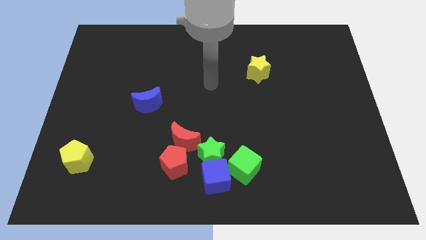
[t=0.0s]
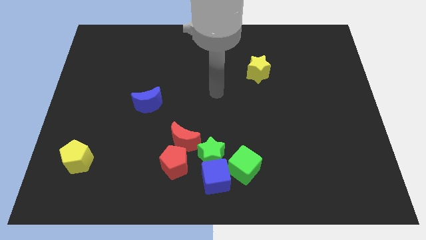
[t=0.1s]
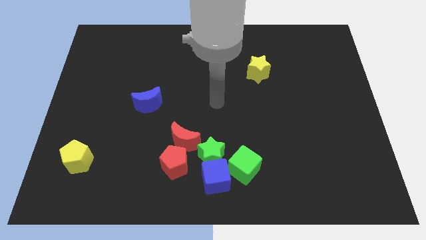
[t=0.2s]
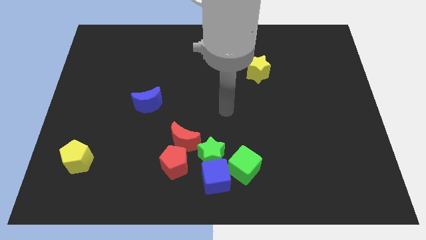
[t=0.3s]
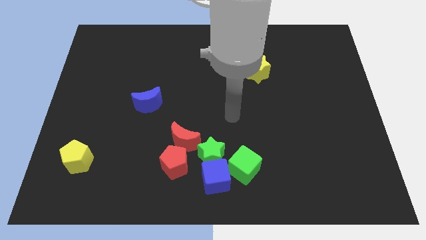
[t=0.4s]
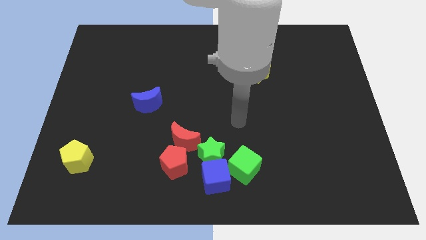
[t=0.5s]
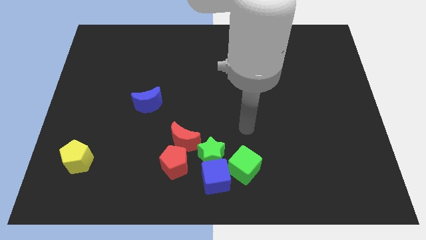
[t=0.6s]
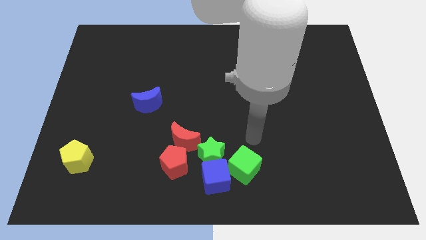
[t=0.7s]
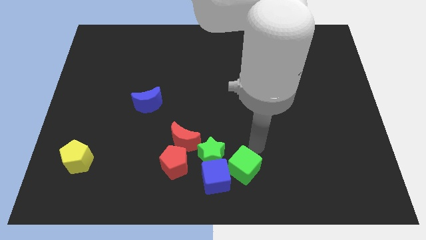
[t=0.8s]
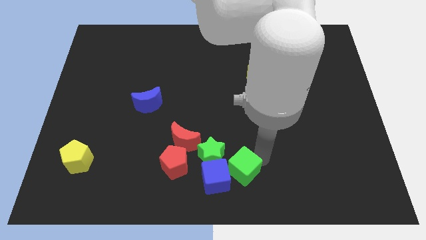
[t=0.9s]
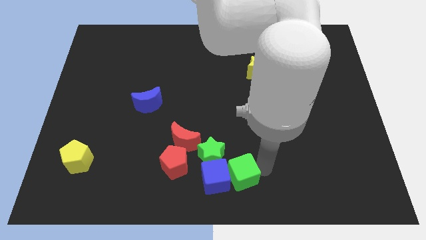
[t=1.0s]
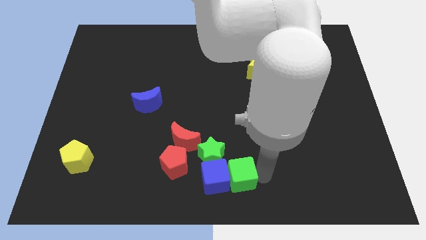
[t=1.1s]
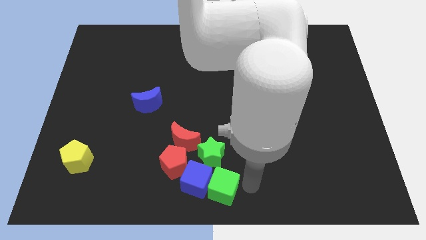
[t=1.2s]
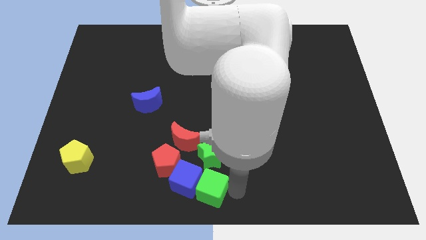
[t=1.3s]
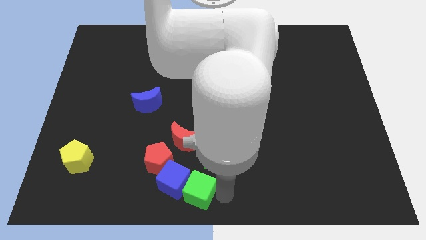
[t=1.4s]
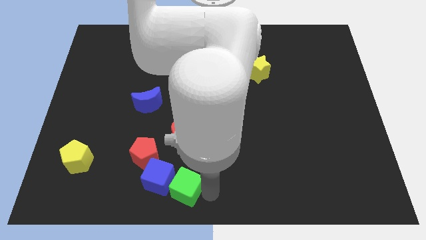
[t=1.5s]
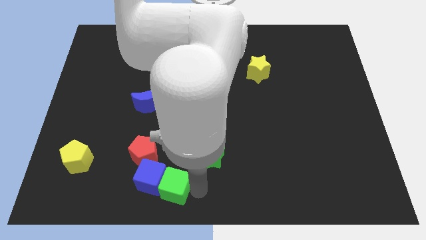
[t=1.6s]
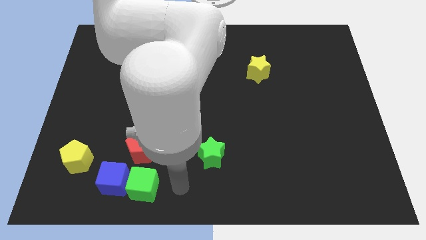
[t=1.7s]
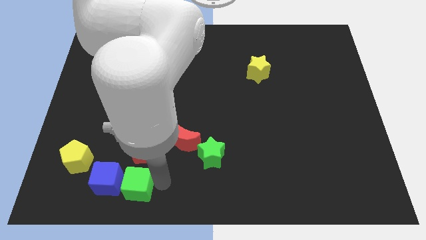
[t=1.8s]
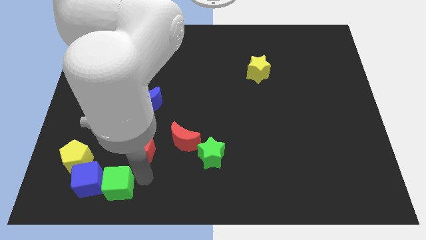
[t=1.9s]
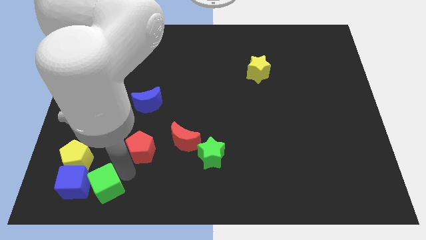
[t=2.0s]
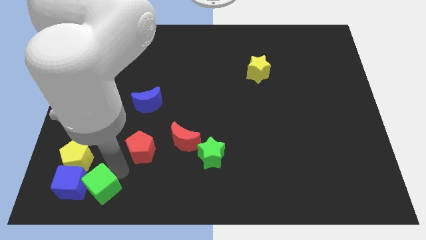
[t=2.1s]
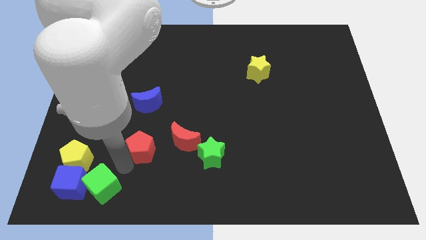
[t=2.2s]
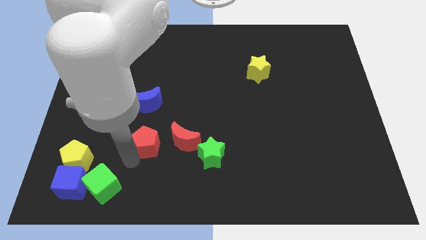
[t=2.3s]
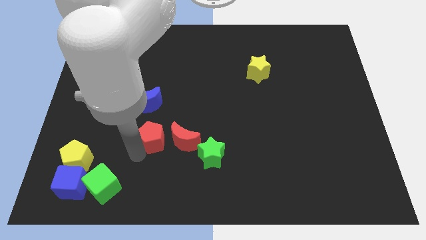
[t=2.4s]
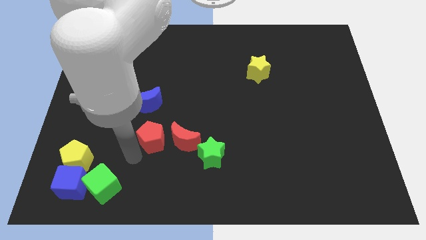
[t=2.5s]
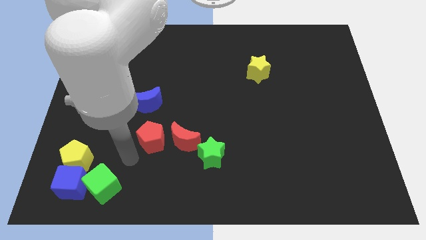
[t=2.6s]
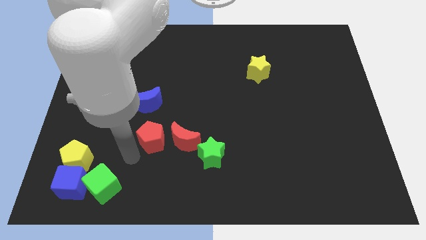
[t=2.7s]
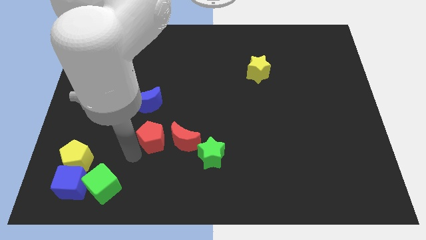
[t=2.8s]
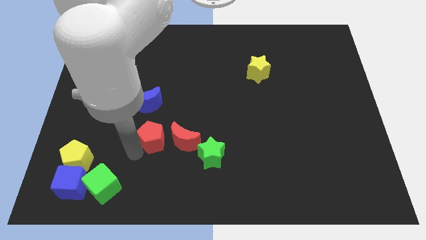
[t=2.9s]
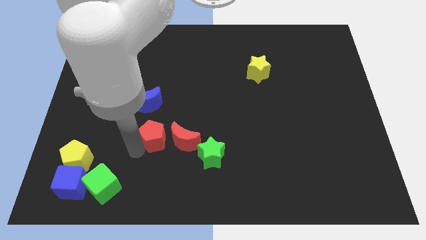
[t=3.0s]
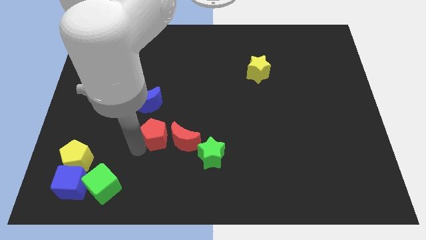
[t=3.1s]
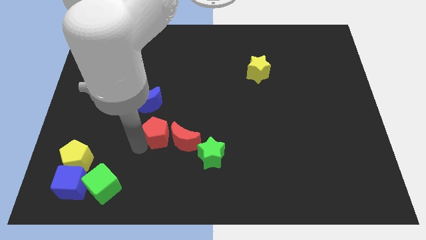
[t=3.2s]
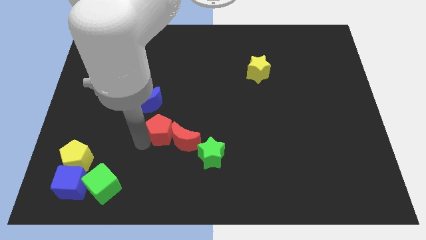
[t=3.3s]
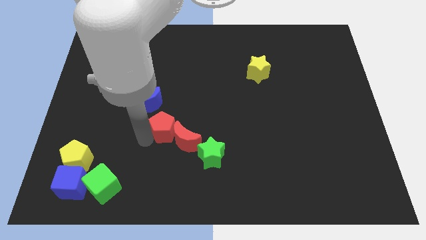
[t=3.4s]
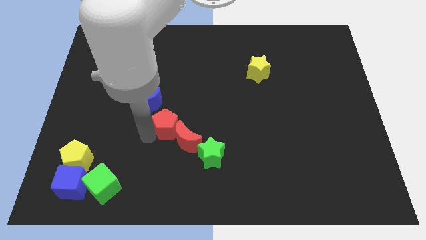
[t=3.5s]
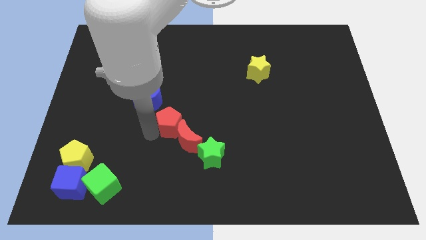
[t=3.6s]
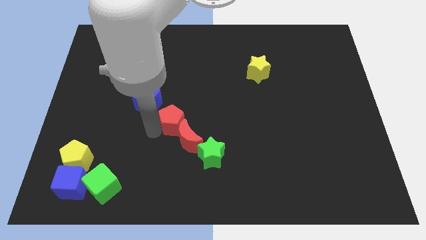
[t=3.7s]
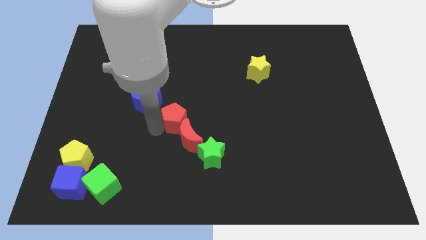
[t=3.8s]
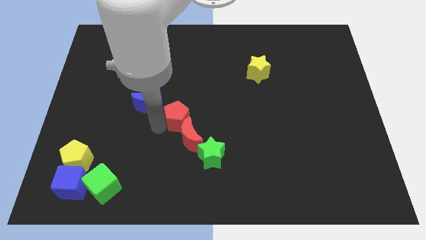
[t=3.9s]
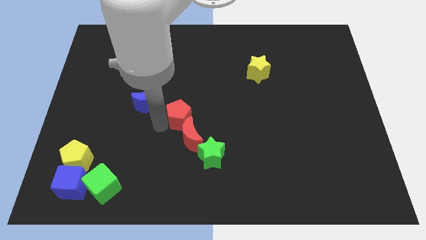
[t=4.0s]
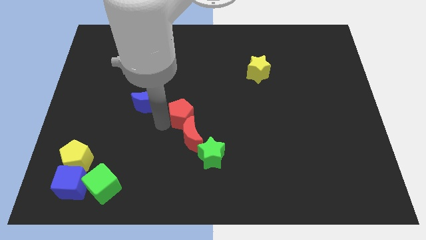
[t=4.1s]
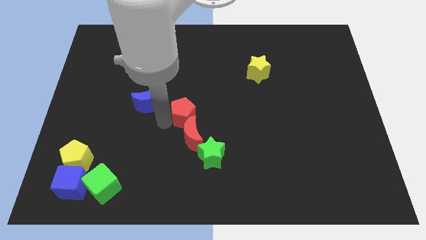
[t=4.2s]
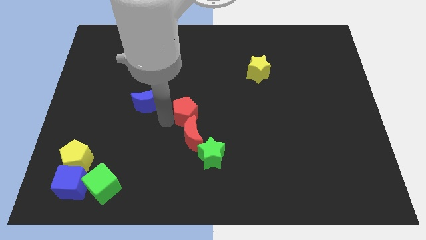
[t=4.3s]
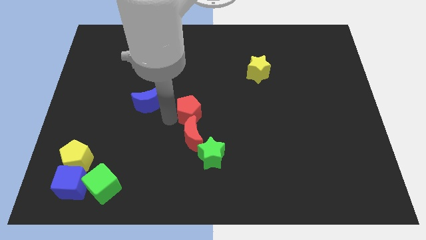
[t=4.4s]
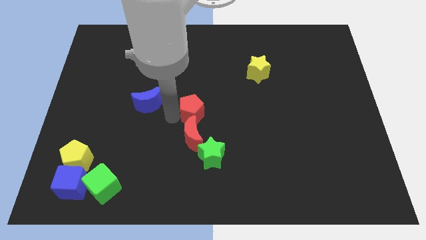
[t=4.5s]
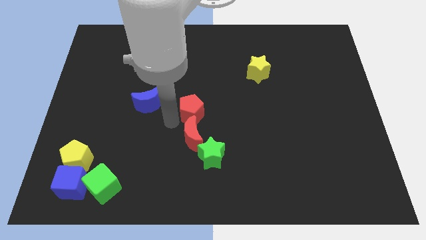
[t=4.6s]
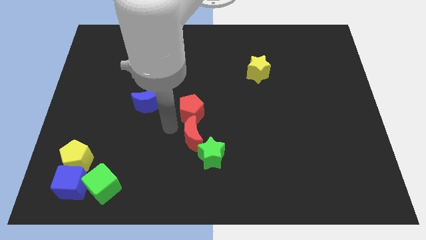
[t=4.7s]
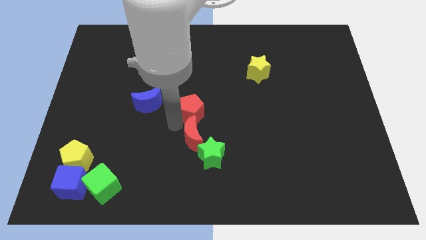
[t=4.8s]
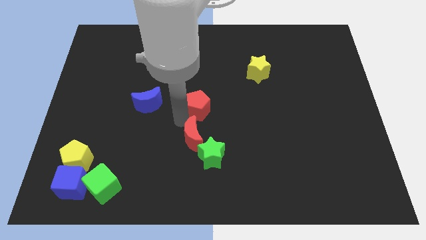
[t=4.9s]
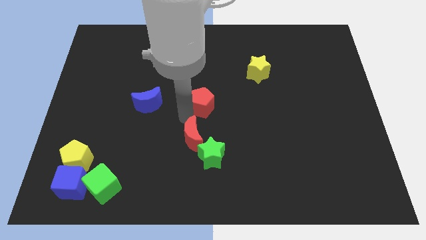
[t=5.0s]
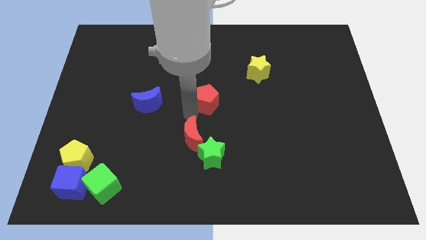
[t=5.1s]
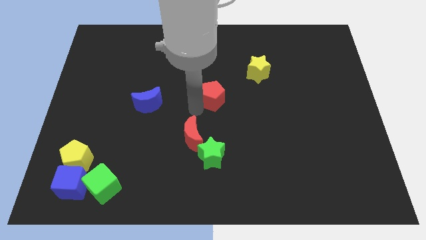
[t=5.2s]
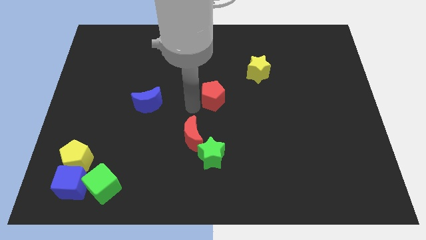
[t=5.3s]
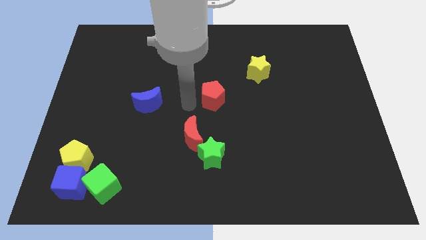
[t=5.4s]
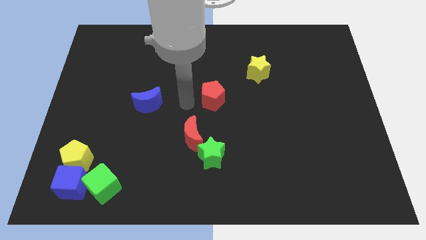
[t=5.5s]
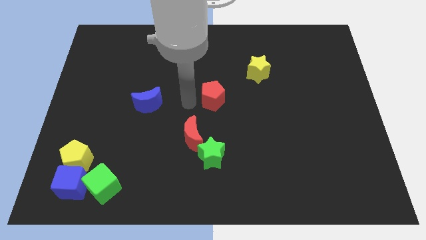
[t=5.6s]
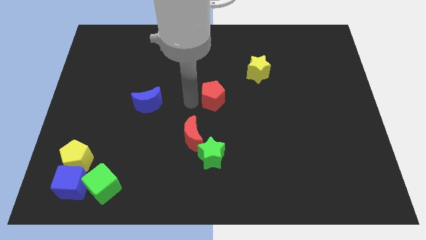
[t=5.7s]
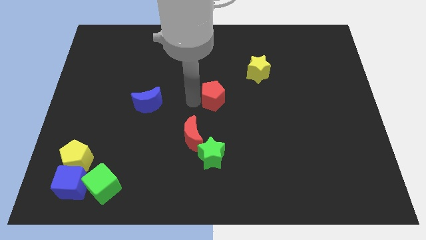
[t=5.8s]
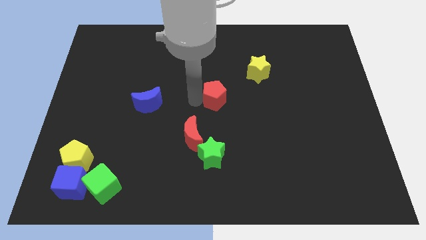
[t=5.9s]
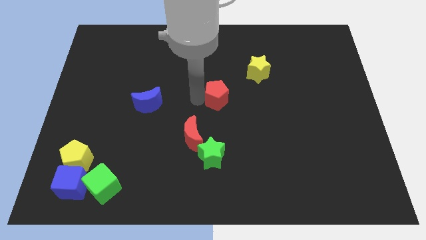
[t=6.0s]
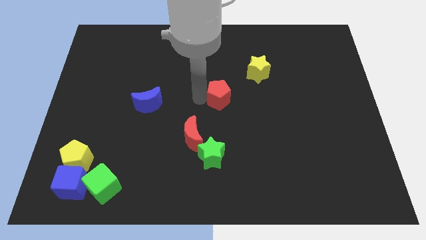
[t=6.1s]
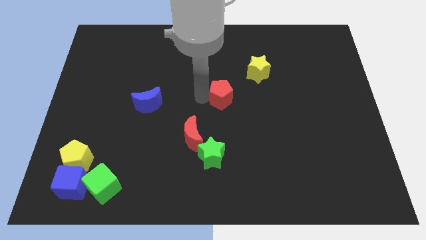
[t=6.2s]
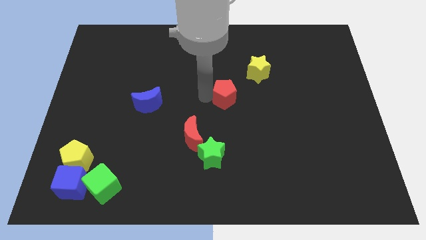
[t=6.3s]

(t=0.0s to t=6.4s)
push the red pentagon up and right

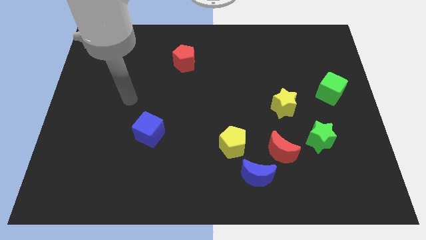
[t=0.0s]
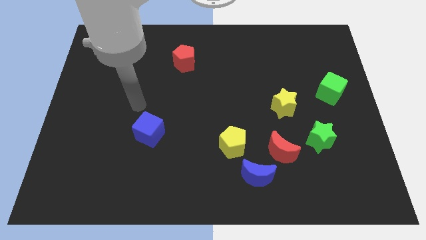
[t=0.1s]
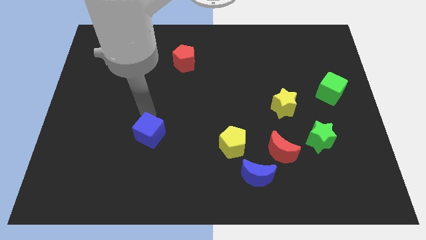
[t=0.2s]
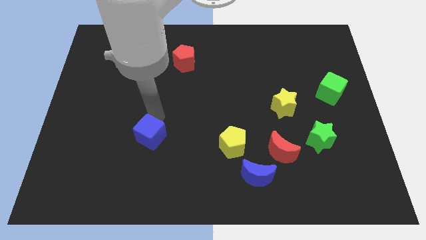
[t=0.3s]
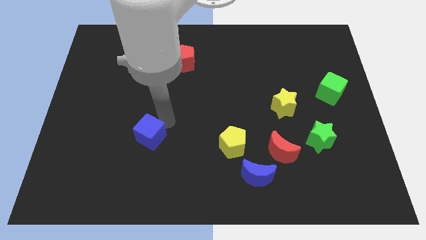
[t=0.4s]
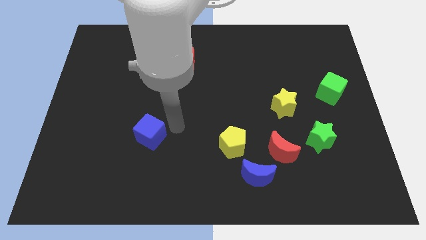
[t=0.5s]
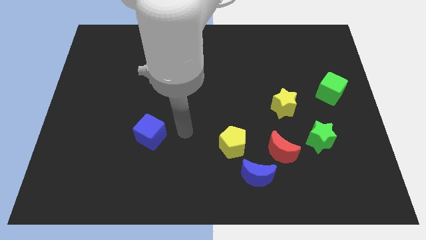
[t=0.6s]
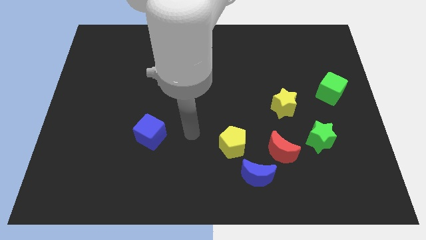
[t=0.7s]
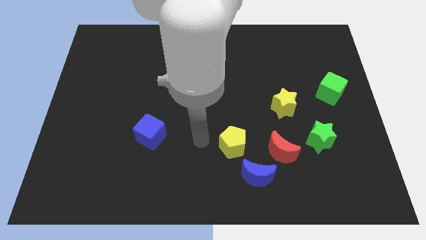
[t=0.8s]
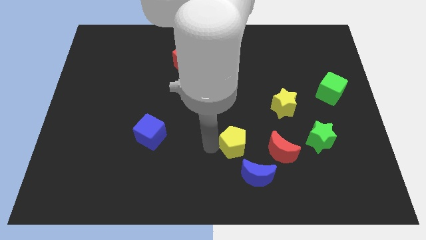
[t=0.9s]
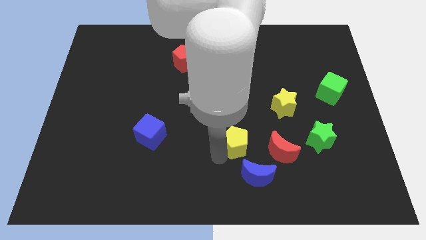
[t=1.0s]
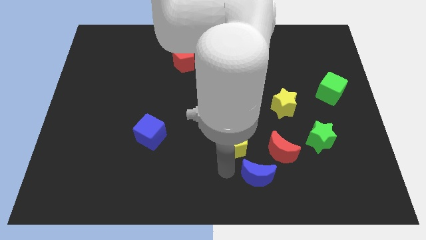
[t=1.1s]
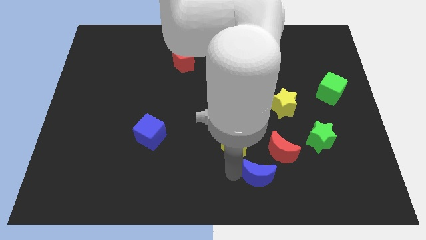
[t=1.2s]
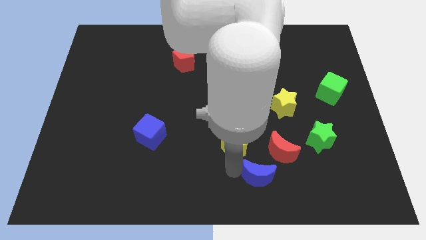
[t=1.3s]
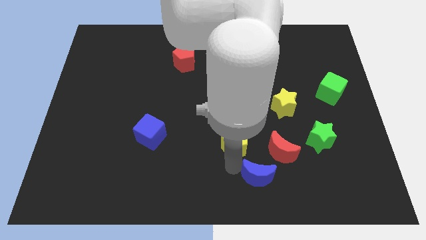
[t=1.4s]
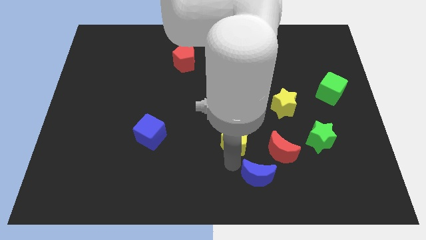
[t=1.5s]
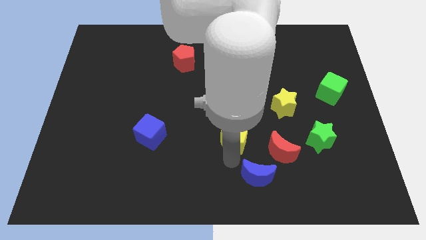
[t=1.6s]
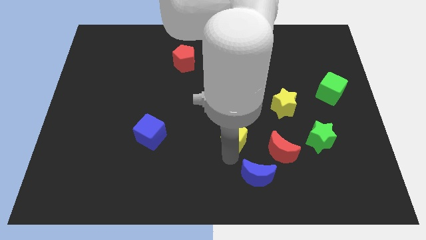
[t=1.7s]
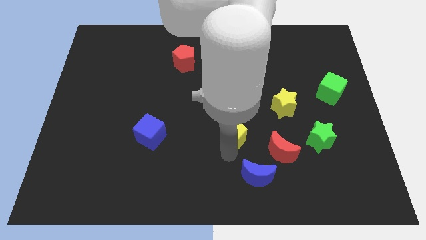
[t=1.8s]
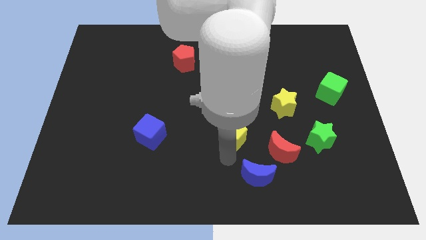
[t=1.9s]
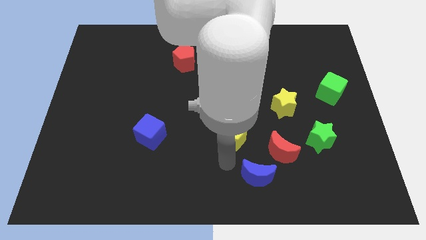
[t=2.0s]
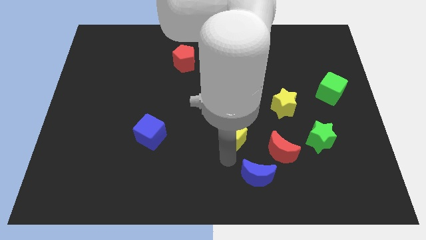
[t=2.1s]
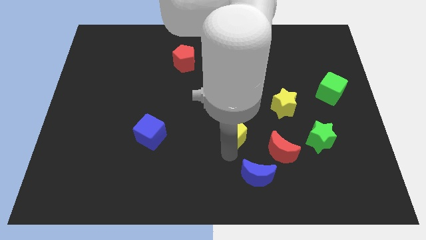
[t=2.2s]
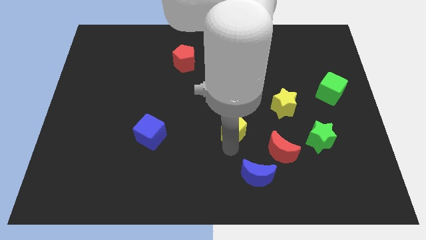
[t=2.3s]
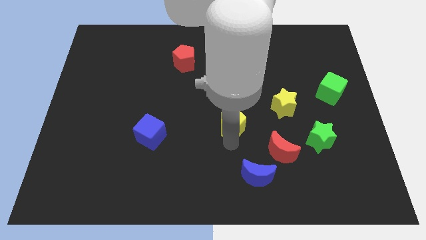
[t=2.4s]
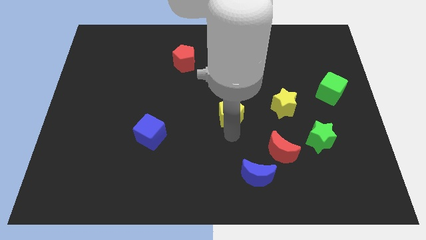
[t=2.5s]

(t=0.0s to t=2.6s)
move the yellow pentagon up a little bit
